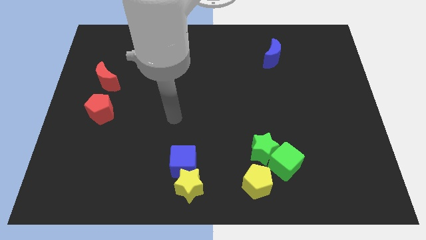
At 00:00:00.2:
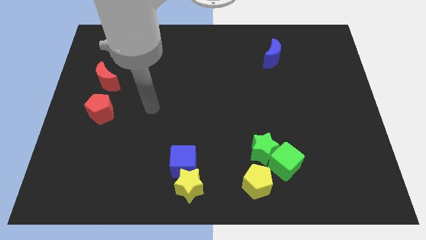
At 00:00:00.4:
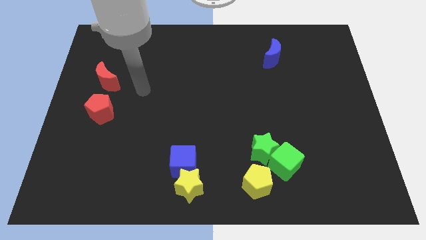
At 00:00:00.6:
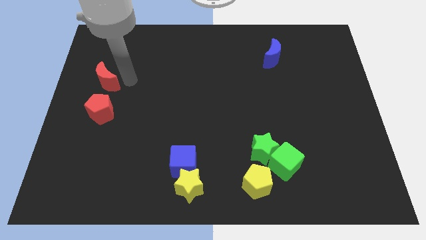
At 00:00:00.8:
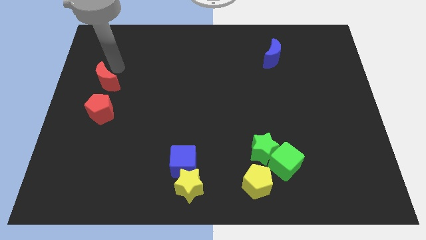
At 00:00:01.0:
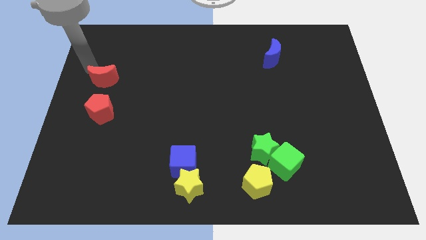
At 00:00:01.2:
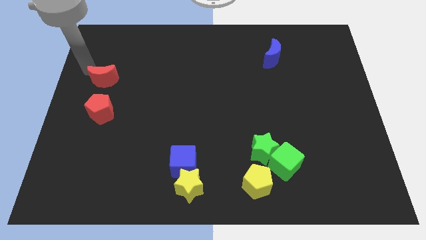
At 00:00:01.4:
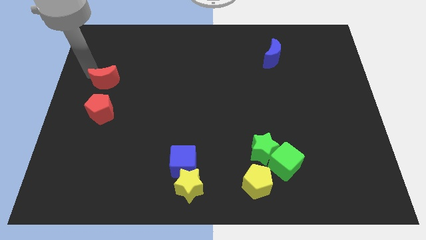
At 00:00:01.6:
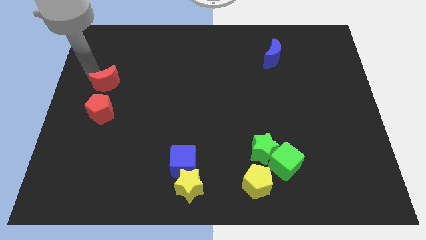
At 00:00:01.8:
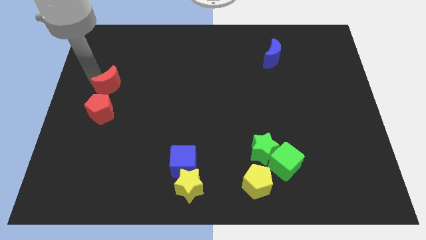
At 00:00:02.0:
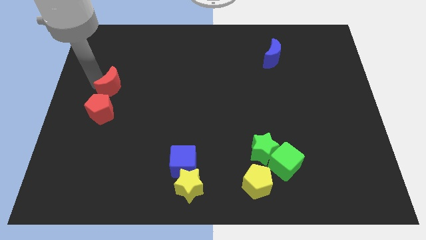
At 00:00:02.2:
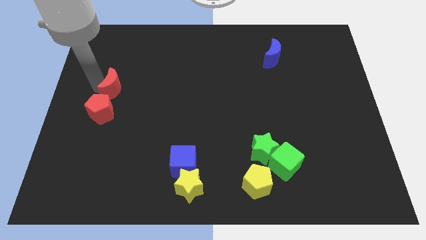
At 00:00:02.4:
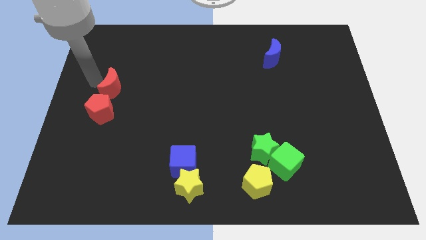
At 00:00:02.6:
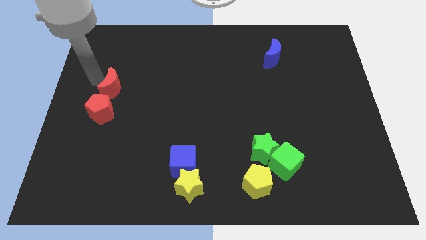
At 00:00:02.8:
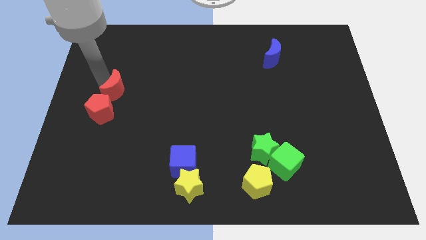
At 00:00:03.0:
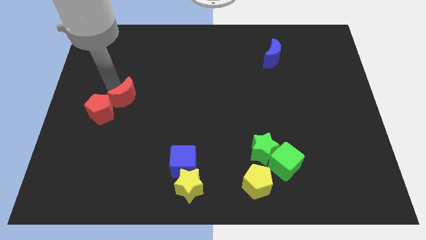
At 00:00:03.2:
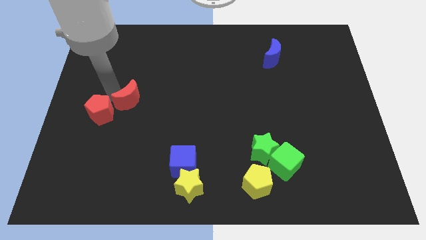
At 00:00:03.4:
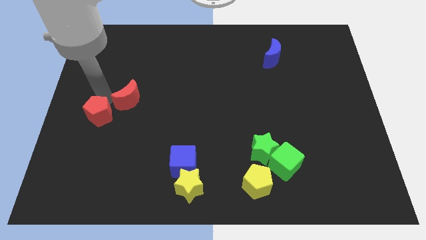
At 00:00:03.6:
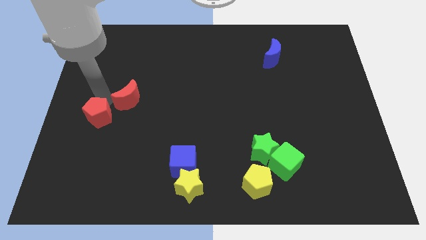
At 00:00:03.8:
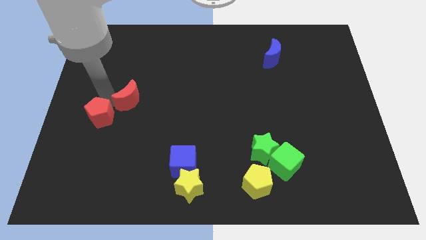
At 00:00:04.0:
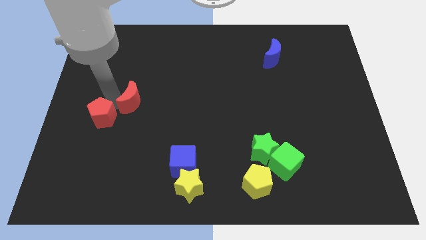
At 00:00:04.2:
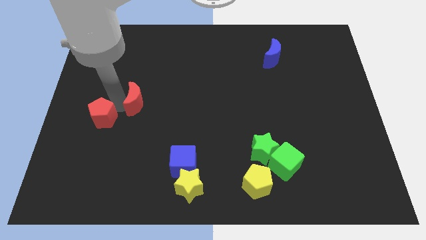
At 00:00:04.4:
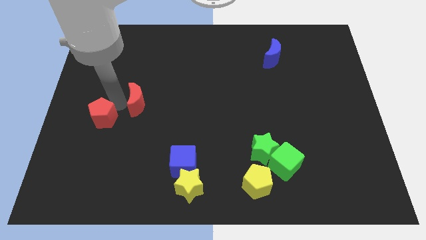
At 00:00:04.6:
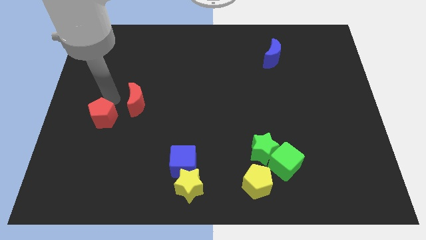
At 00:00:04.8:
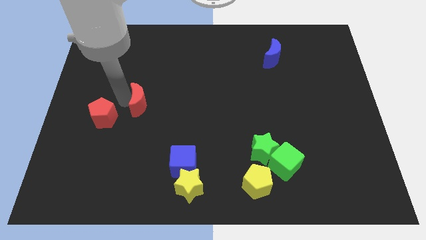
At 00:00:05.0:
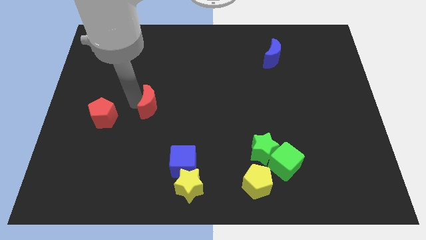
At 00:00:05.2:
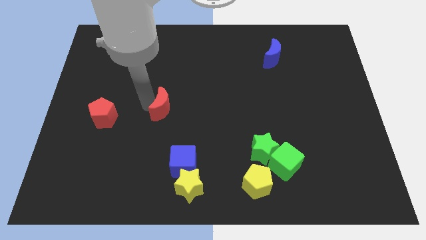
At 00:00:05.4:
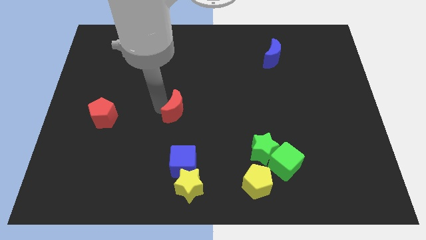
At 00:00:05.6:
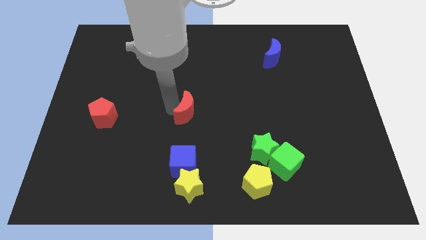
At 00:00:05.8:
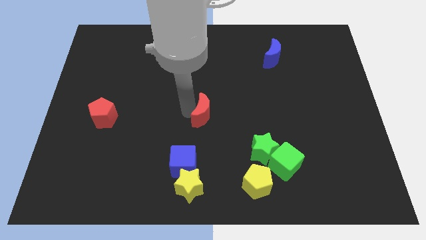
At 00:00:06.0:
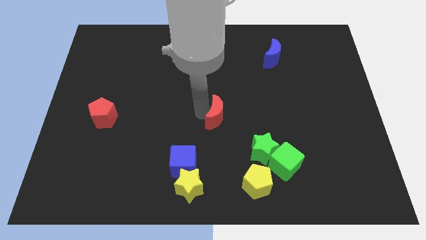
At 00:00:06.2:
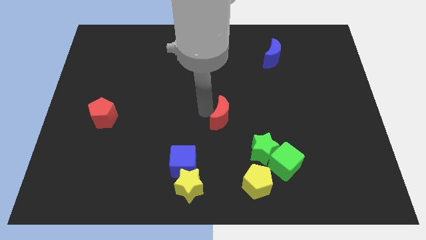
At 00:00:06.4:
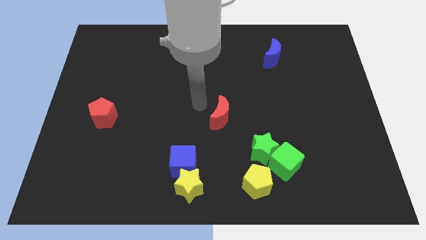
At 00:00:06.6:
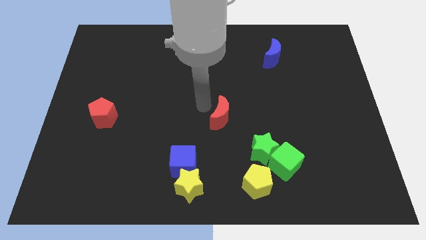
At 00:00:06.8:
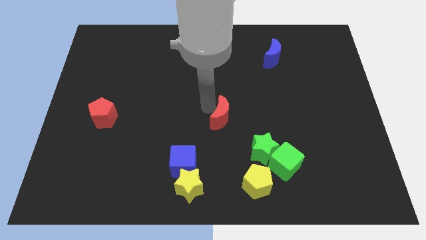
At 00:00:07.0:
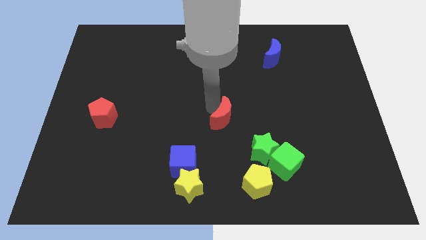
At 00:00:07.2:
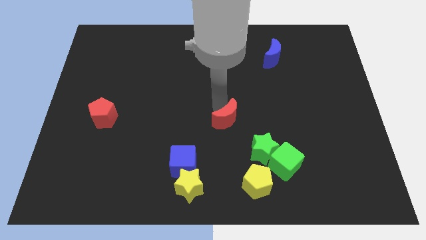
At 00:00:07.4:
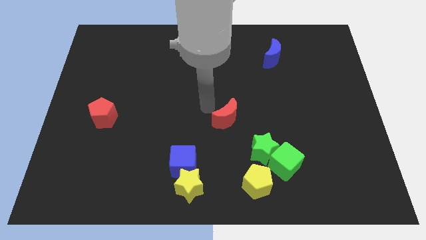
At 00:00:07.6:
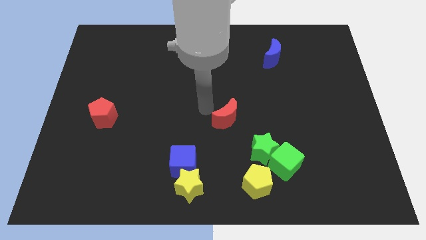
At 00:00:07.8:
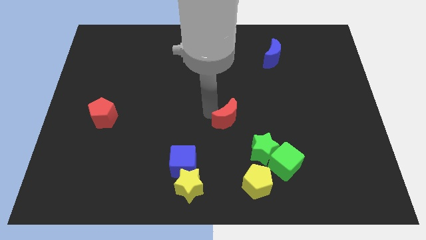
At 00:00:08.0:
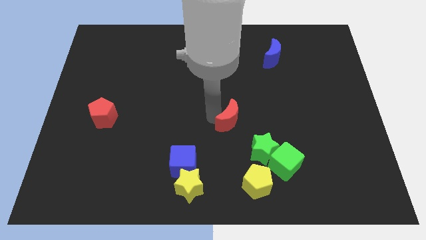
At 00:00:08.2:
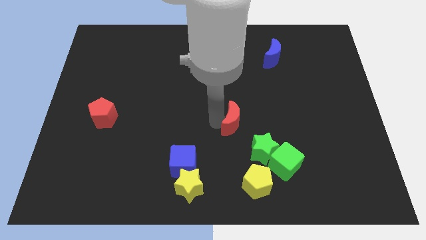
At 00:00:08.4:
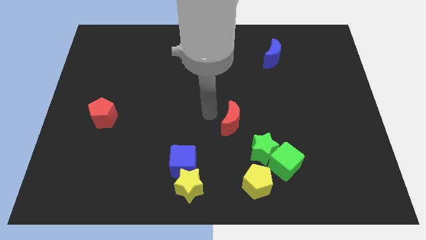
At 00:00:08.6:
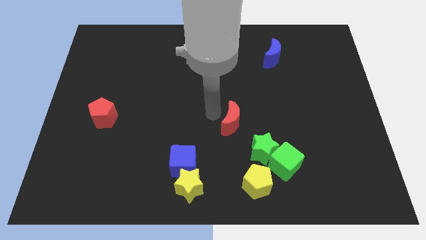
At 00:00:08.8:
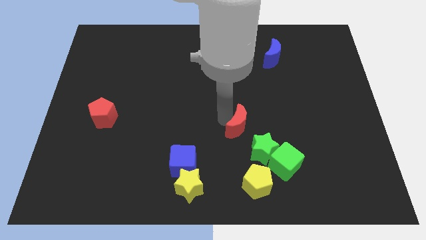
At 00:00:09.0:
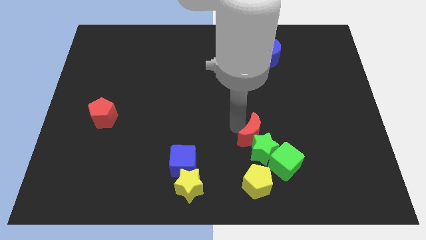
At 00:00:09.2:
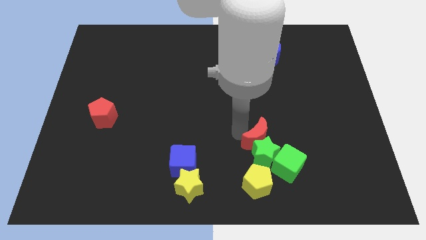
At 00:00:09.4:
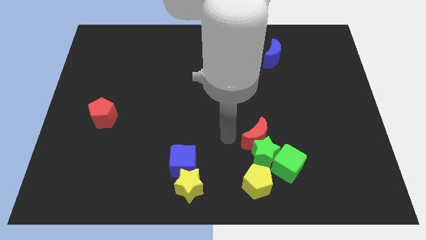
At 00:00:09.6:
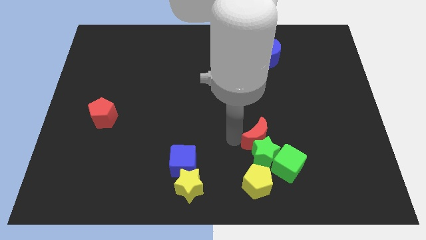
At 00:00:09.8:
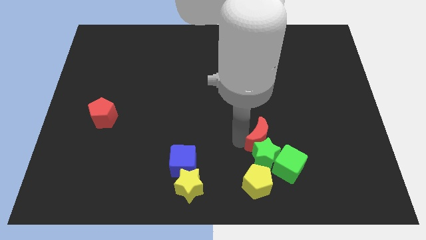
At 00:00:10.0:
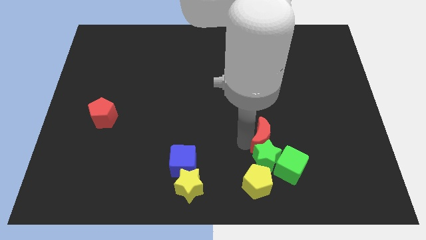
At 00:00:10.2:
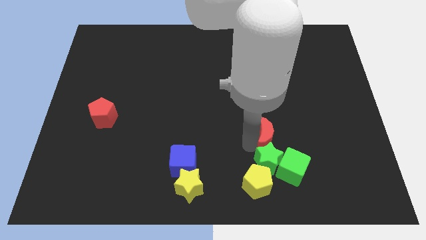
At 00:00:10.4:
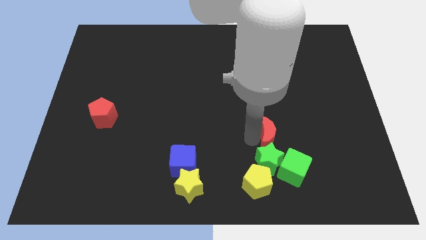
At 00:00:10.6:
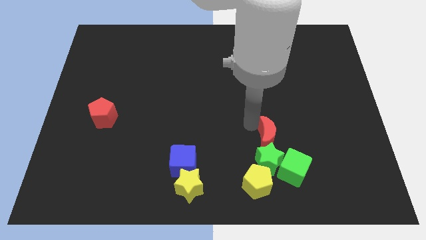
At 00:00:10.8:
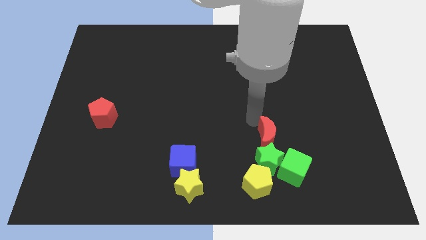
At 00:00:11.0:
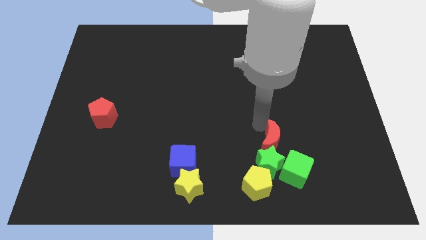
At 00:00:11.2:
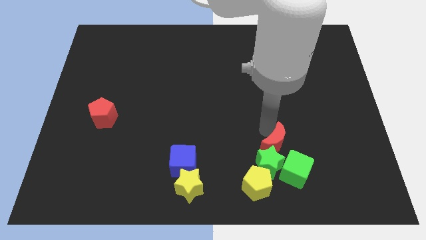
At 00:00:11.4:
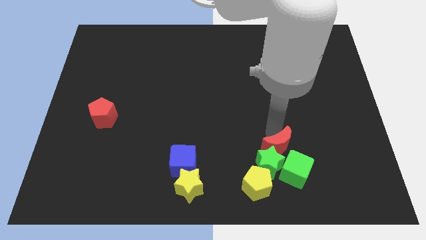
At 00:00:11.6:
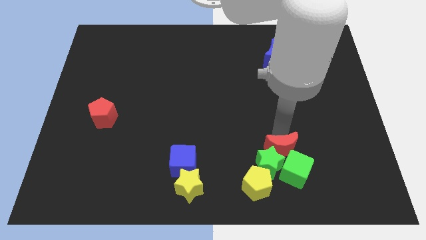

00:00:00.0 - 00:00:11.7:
slide the red moon to the green cube

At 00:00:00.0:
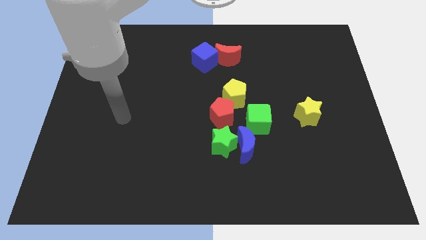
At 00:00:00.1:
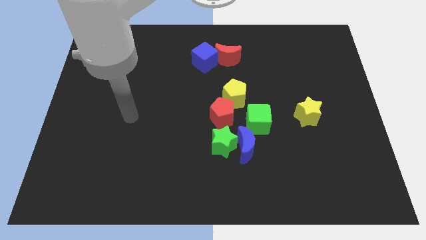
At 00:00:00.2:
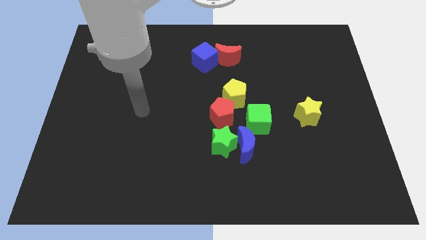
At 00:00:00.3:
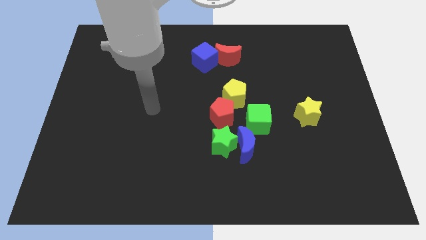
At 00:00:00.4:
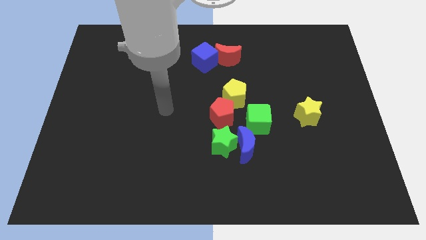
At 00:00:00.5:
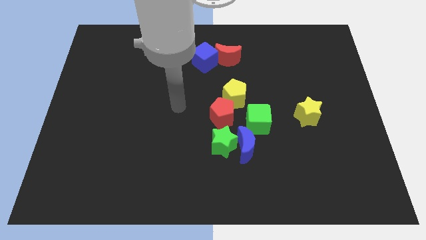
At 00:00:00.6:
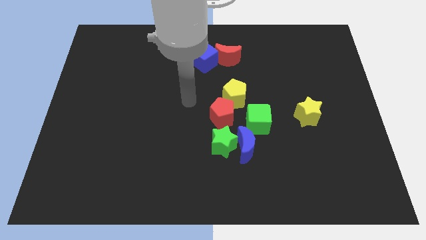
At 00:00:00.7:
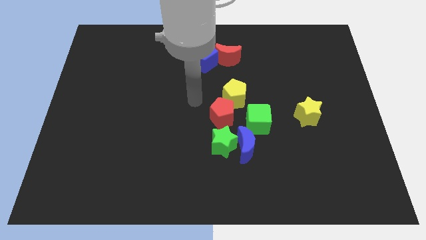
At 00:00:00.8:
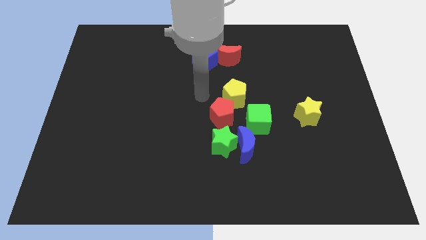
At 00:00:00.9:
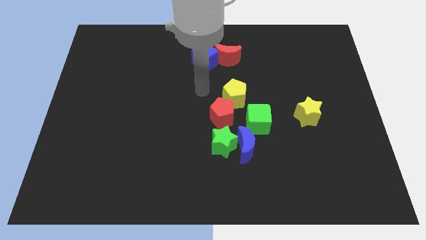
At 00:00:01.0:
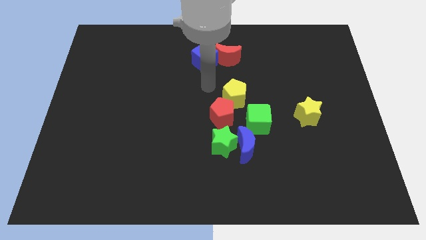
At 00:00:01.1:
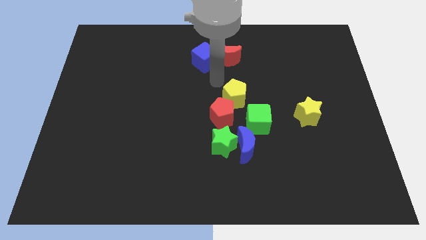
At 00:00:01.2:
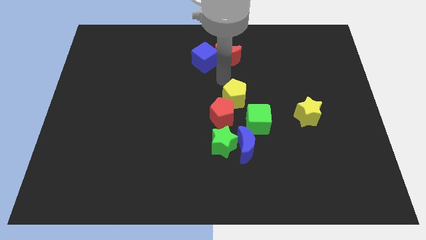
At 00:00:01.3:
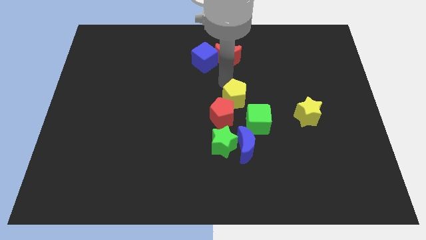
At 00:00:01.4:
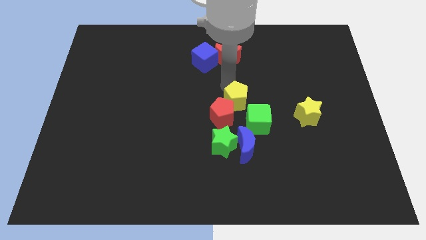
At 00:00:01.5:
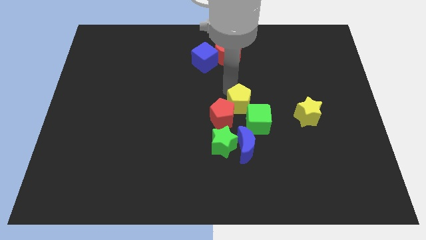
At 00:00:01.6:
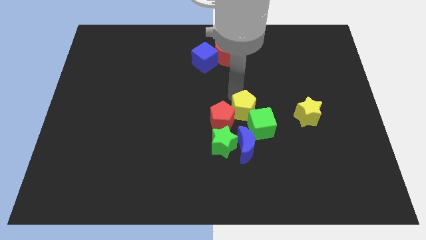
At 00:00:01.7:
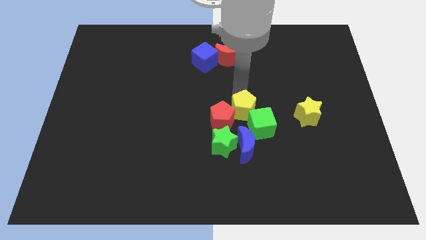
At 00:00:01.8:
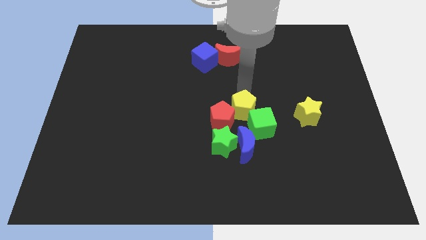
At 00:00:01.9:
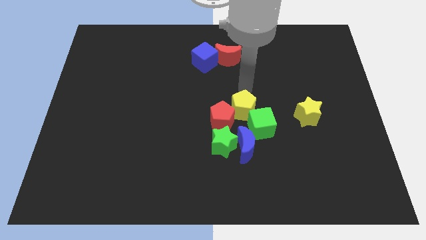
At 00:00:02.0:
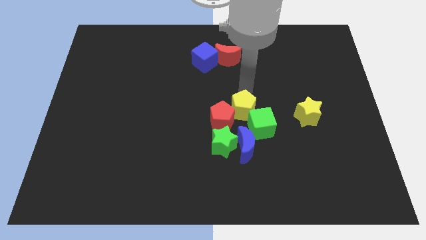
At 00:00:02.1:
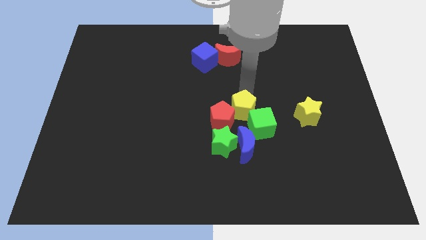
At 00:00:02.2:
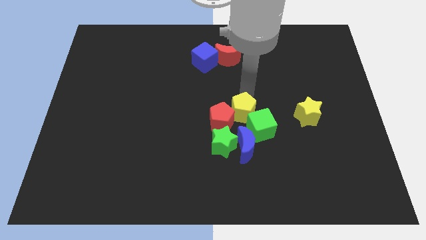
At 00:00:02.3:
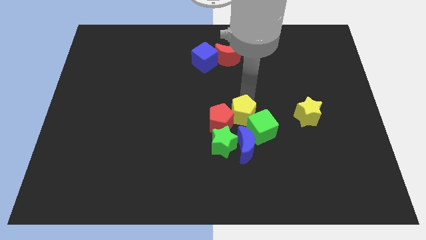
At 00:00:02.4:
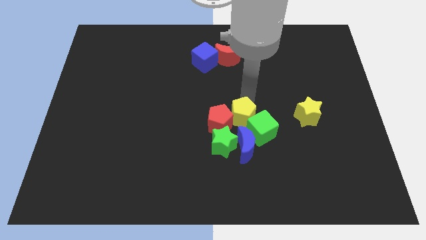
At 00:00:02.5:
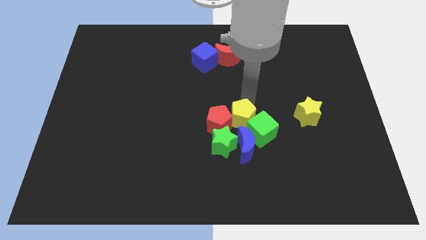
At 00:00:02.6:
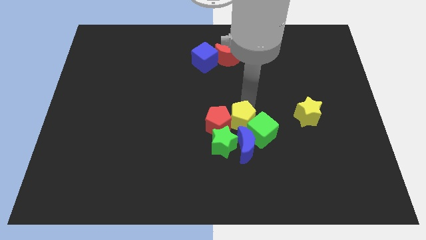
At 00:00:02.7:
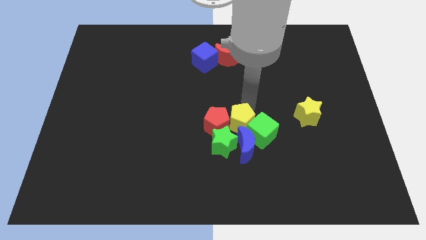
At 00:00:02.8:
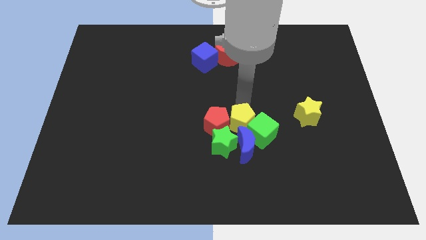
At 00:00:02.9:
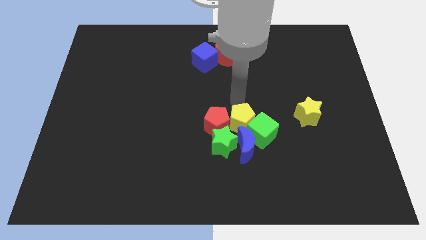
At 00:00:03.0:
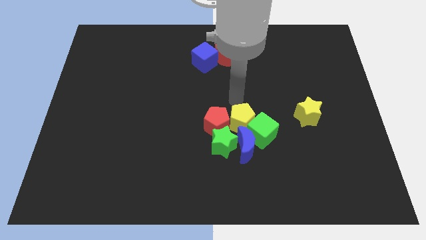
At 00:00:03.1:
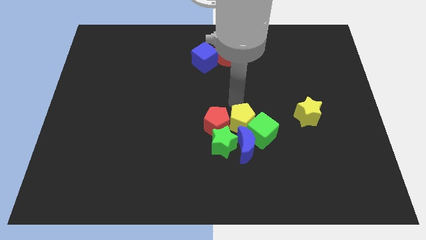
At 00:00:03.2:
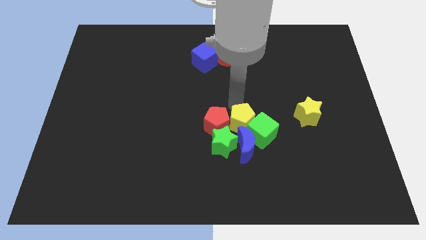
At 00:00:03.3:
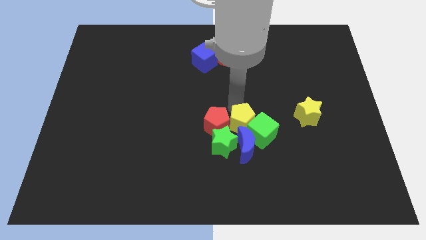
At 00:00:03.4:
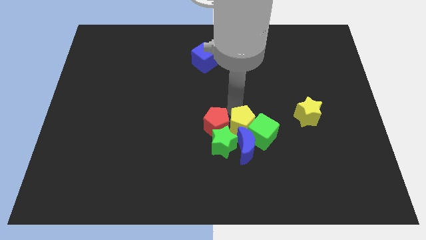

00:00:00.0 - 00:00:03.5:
move the yellow pentagon close to the blue moon
